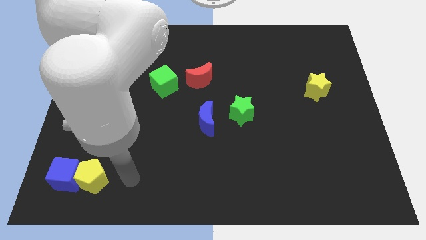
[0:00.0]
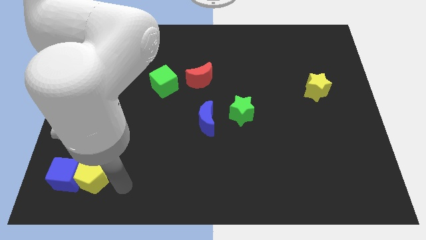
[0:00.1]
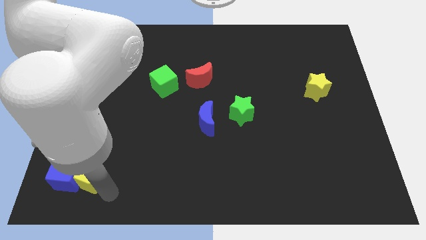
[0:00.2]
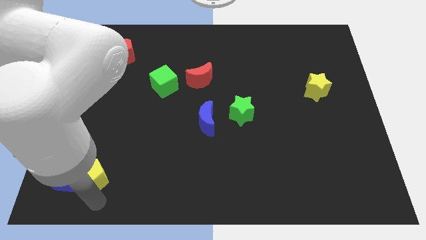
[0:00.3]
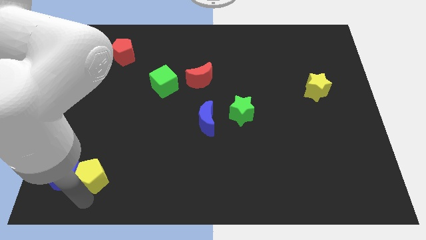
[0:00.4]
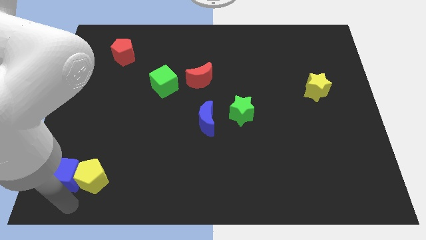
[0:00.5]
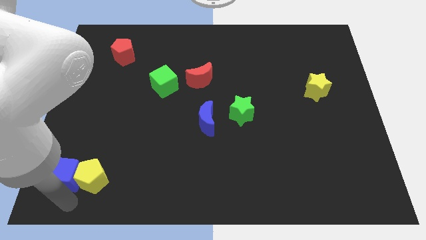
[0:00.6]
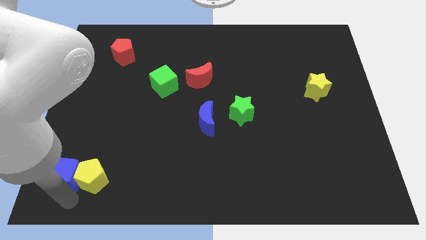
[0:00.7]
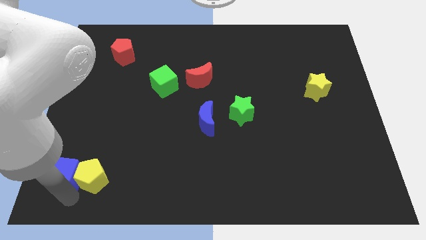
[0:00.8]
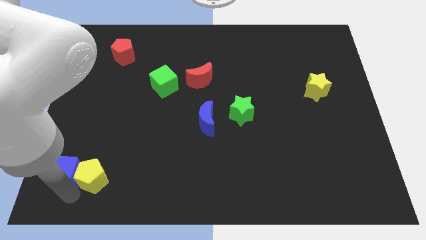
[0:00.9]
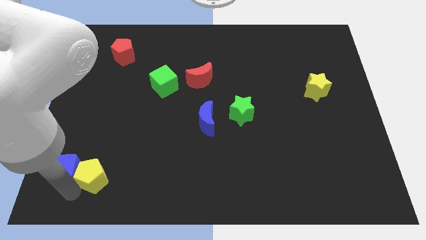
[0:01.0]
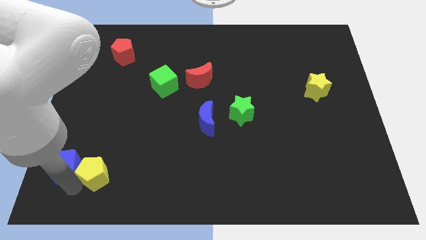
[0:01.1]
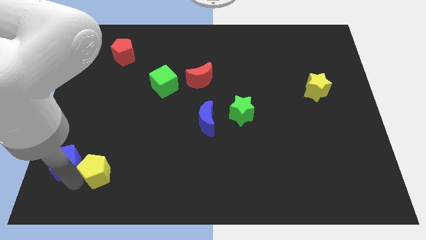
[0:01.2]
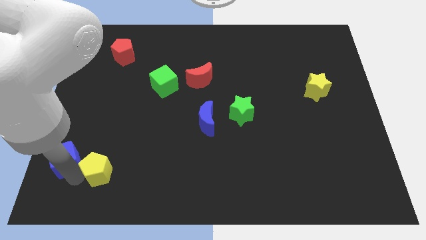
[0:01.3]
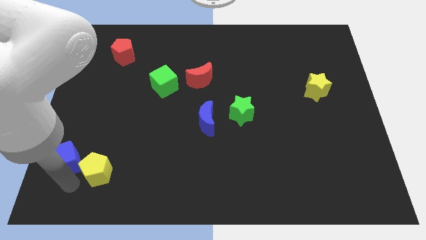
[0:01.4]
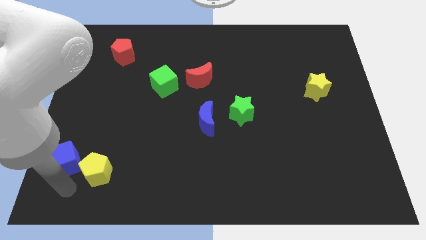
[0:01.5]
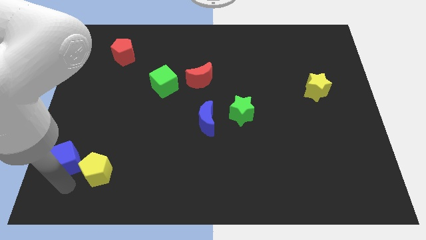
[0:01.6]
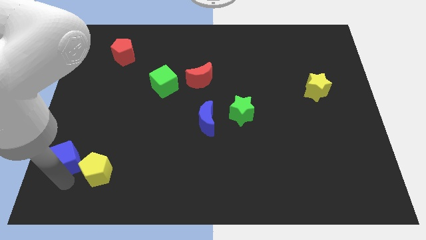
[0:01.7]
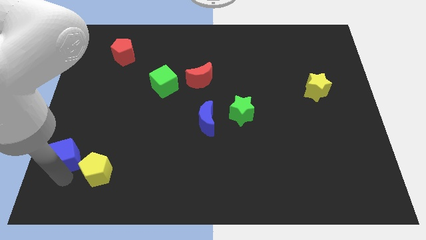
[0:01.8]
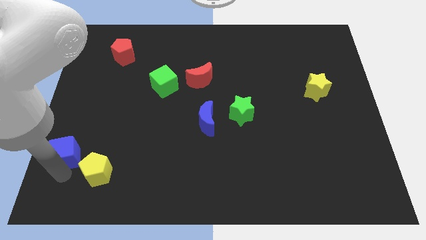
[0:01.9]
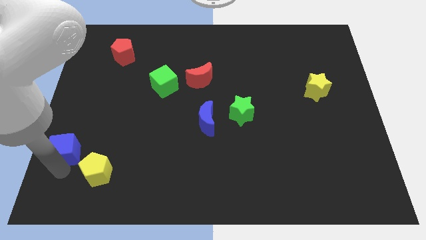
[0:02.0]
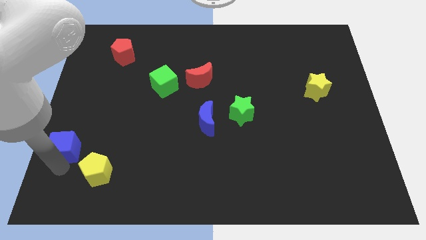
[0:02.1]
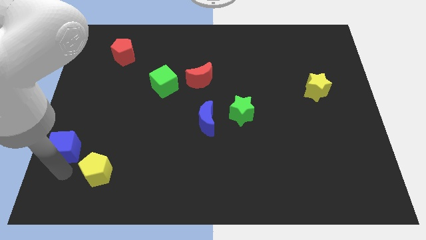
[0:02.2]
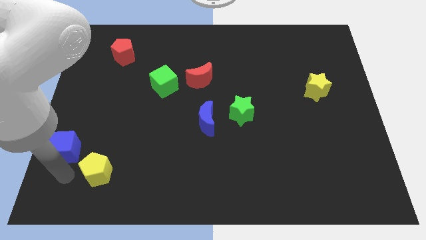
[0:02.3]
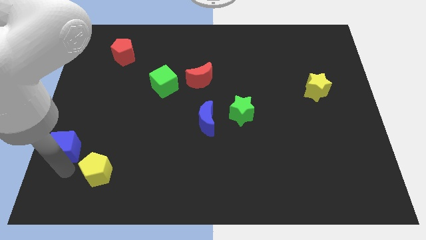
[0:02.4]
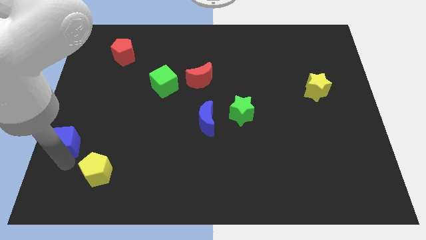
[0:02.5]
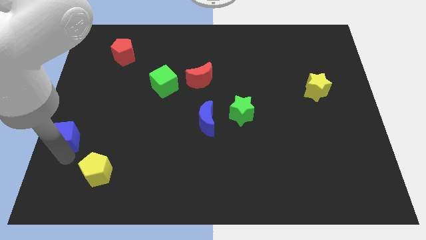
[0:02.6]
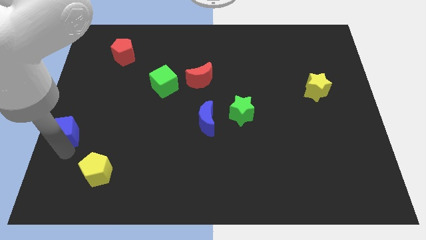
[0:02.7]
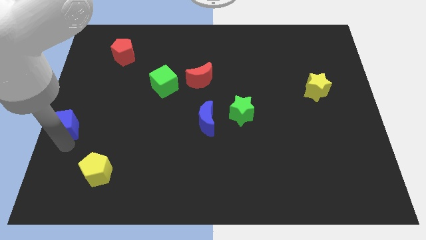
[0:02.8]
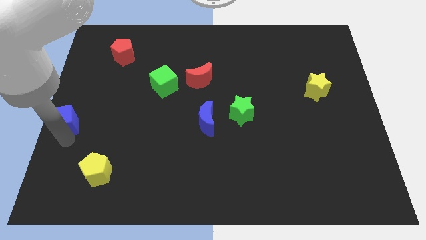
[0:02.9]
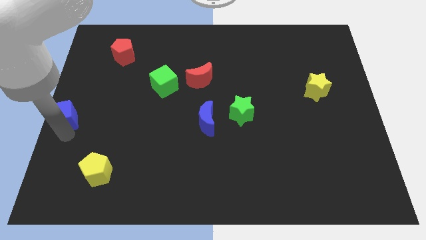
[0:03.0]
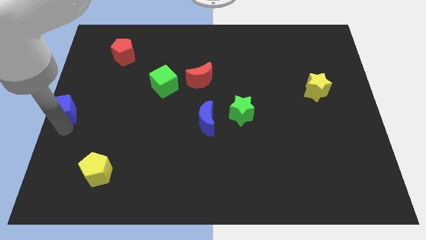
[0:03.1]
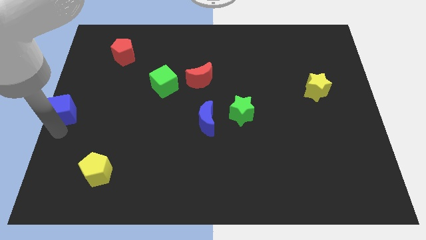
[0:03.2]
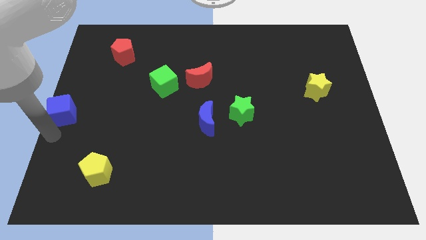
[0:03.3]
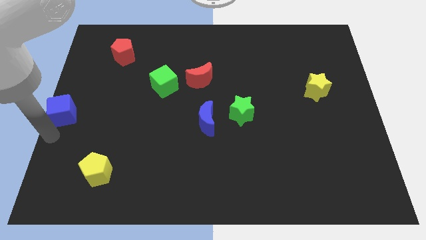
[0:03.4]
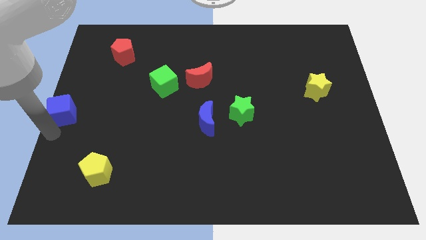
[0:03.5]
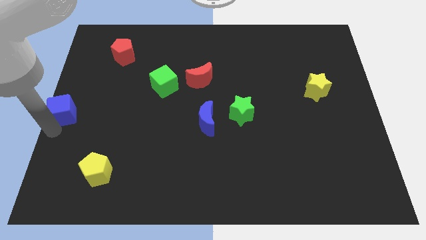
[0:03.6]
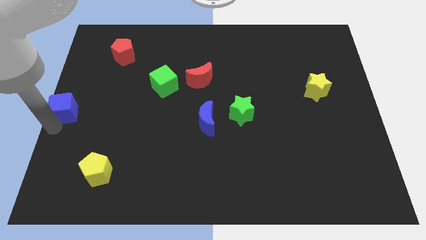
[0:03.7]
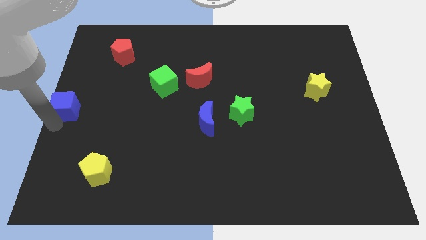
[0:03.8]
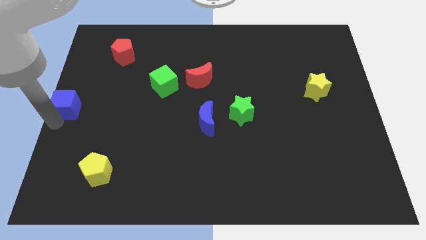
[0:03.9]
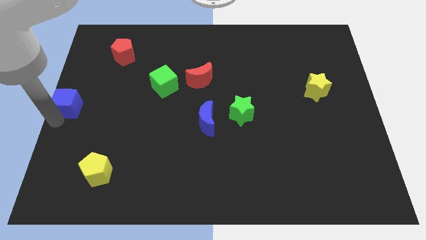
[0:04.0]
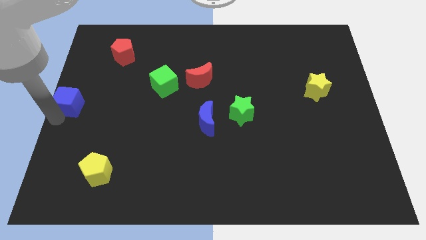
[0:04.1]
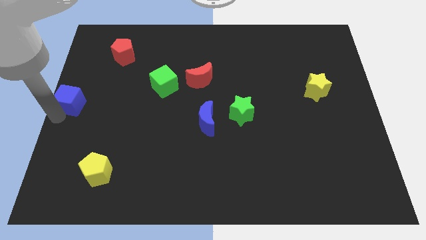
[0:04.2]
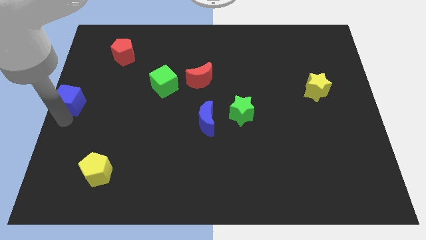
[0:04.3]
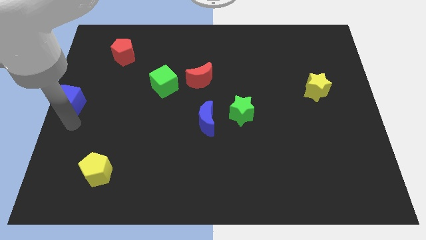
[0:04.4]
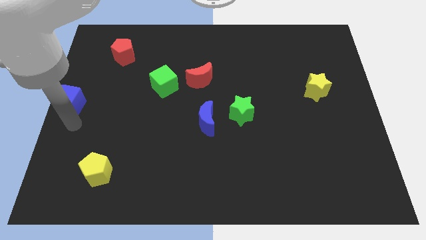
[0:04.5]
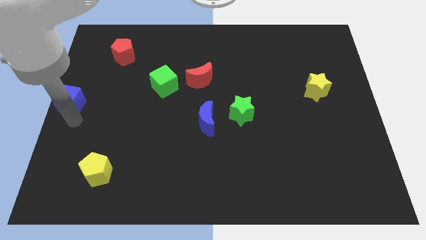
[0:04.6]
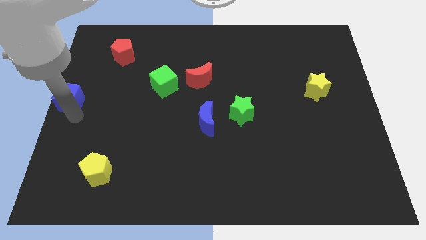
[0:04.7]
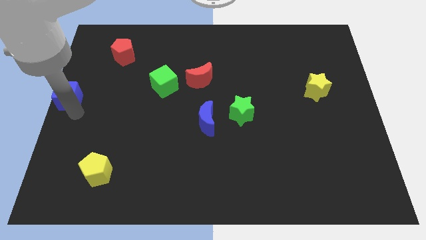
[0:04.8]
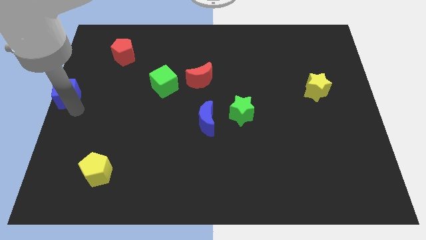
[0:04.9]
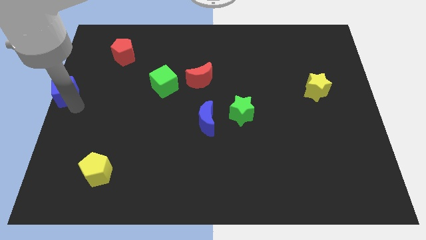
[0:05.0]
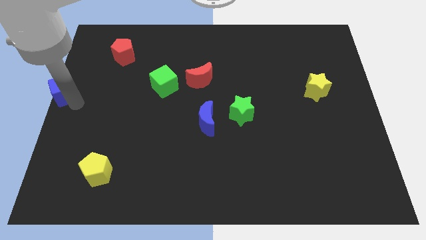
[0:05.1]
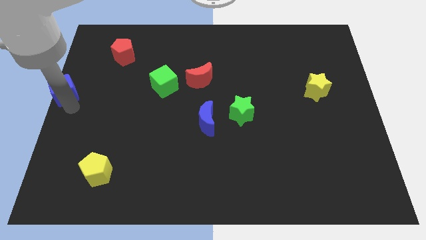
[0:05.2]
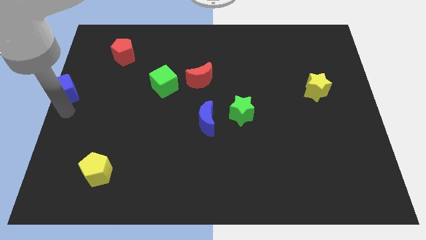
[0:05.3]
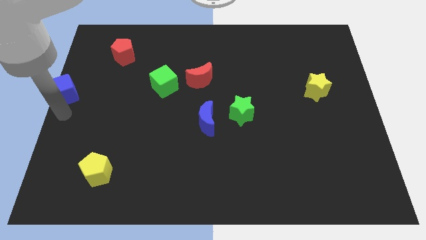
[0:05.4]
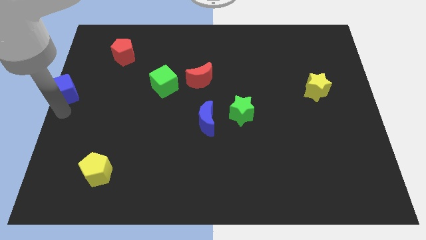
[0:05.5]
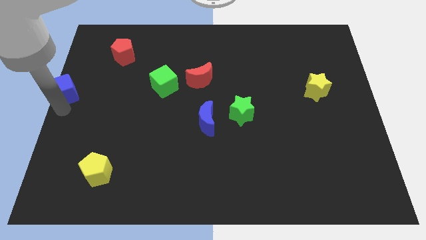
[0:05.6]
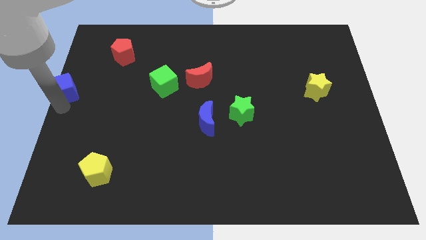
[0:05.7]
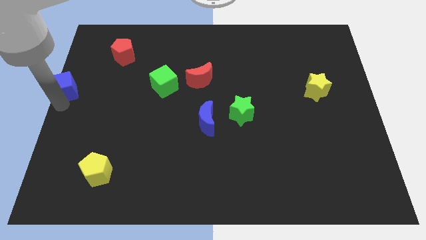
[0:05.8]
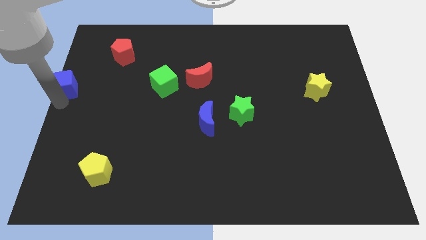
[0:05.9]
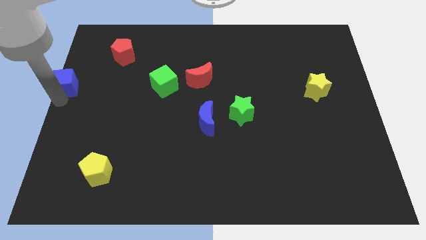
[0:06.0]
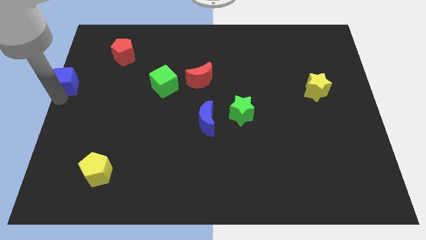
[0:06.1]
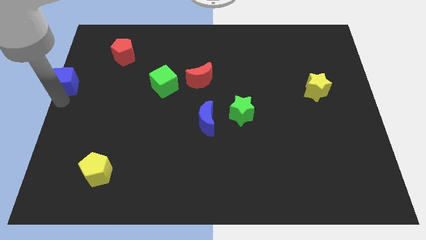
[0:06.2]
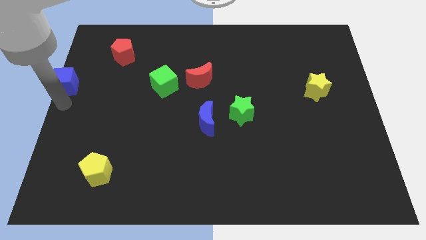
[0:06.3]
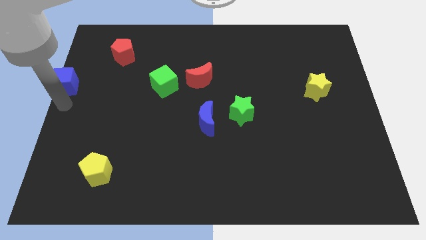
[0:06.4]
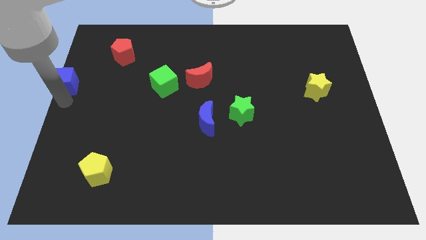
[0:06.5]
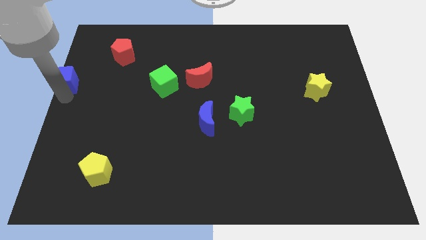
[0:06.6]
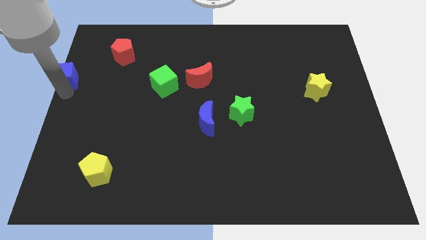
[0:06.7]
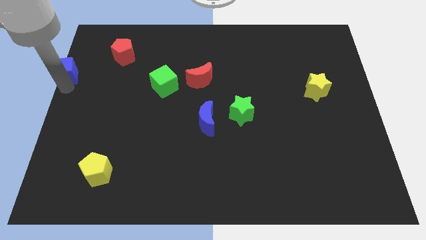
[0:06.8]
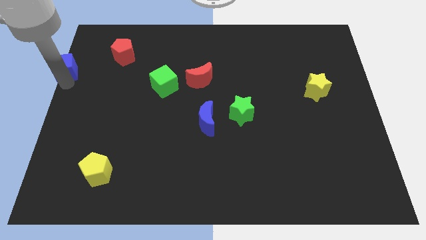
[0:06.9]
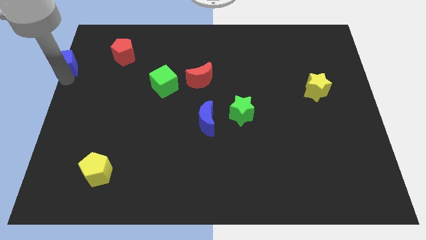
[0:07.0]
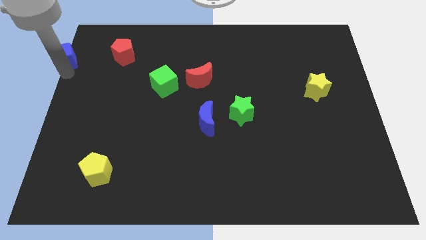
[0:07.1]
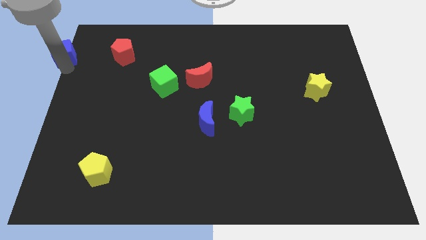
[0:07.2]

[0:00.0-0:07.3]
put the blue cube to the top left of the board
